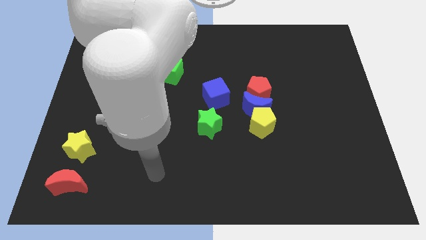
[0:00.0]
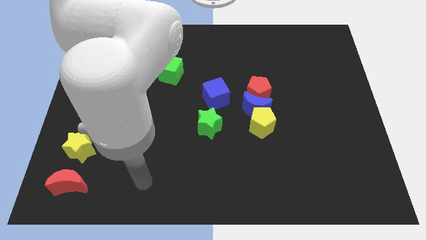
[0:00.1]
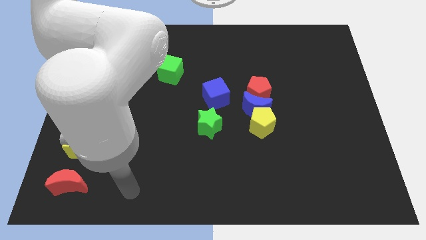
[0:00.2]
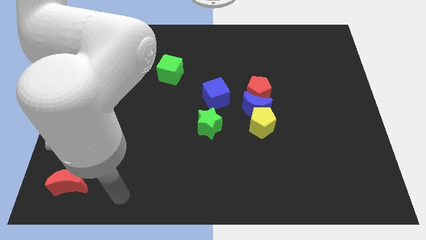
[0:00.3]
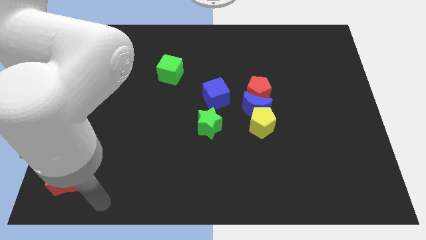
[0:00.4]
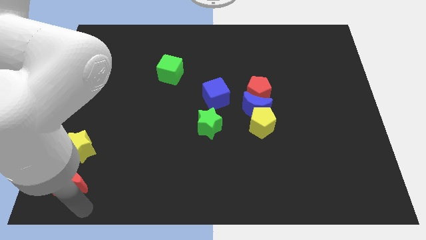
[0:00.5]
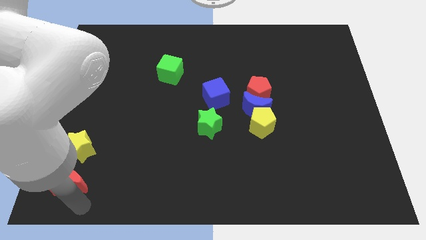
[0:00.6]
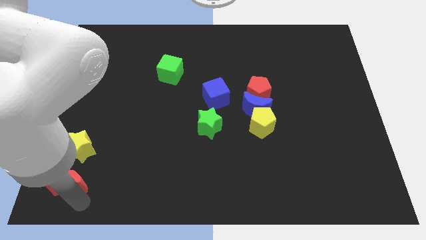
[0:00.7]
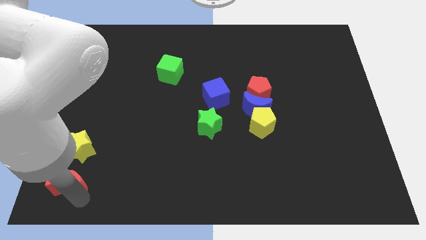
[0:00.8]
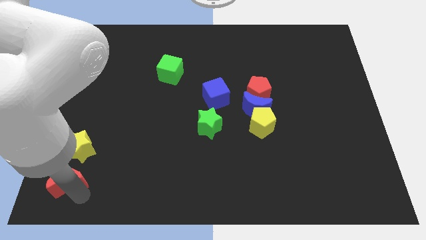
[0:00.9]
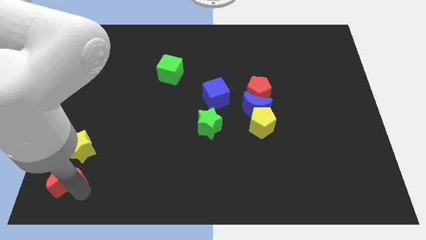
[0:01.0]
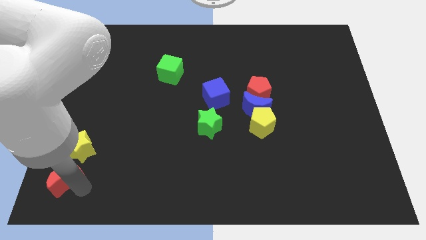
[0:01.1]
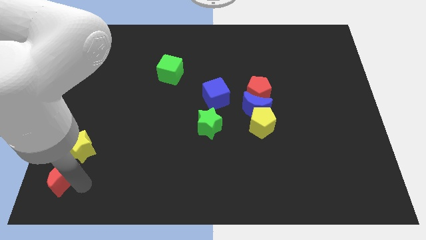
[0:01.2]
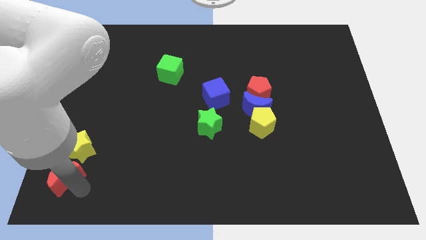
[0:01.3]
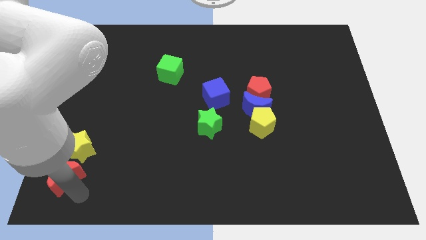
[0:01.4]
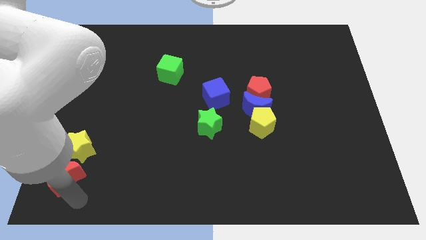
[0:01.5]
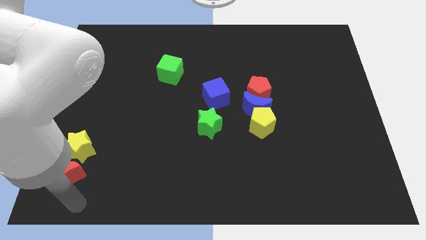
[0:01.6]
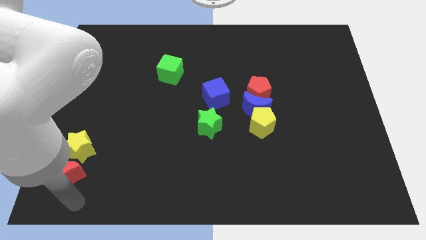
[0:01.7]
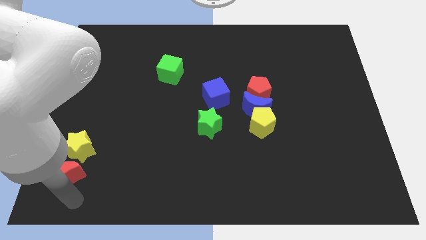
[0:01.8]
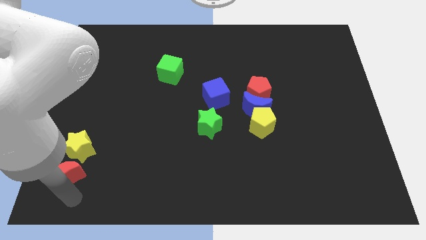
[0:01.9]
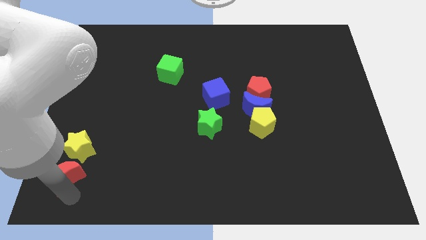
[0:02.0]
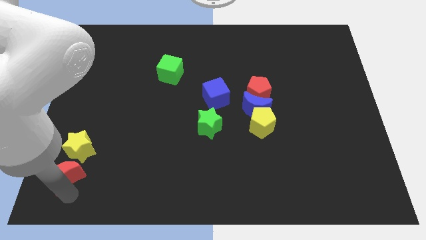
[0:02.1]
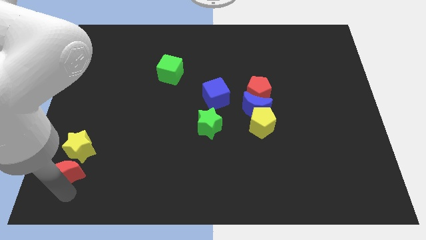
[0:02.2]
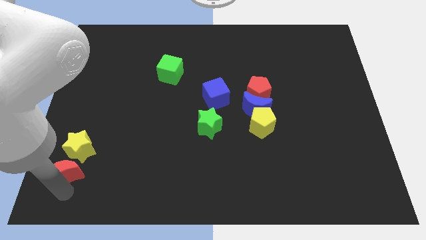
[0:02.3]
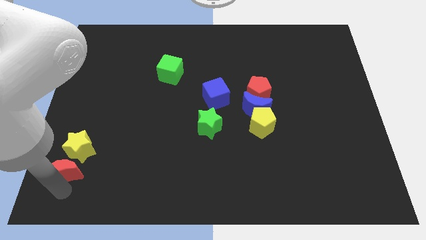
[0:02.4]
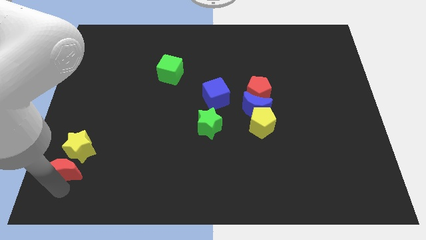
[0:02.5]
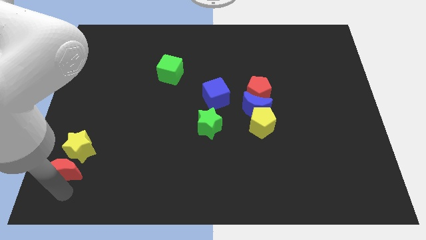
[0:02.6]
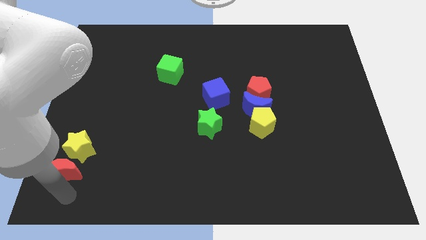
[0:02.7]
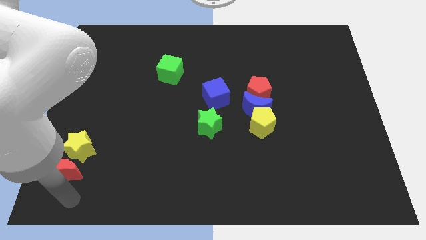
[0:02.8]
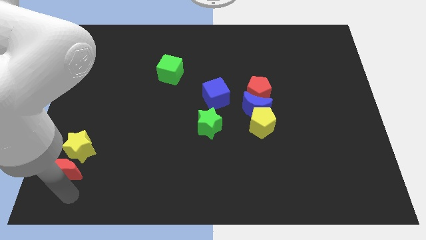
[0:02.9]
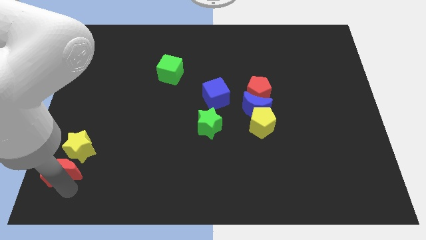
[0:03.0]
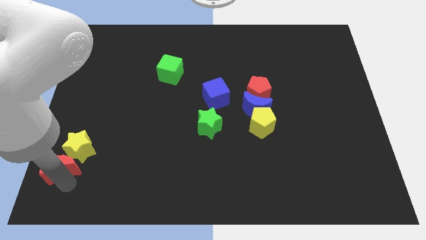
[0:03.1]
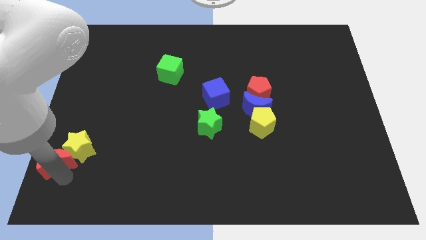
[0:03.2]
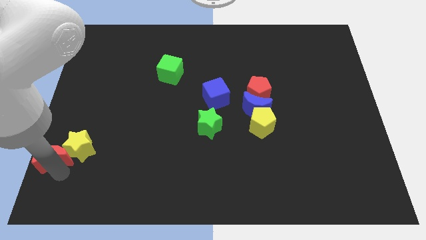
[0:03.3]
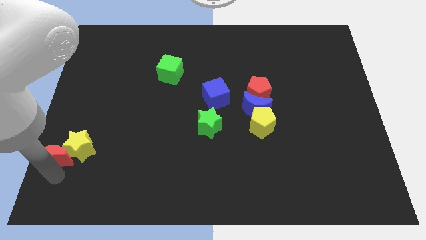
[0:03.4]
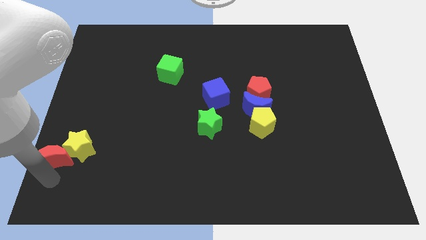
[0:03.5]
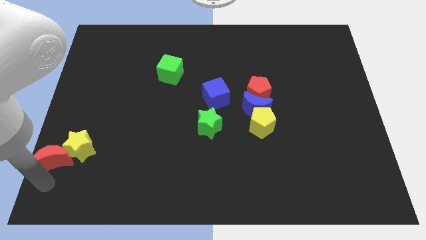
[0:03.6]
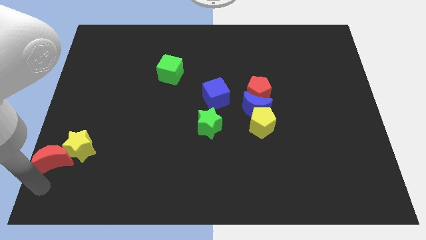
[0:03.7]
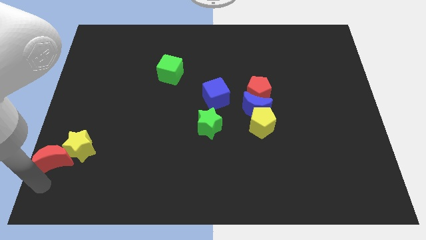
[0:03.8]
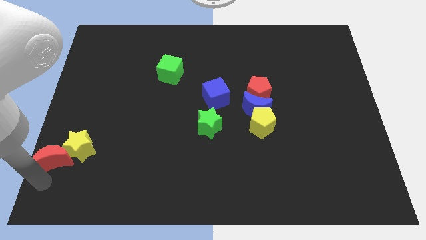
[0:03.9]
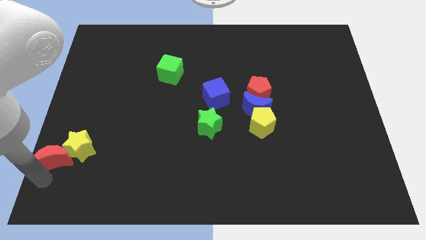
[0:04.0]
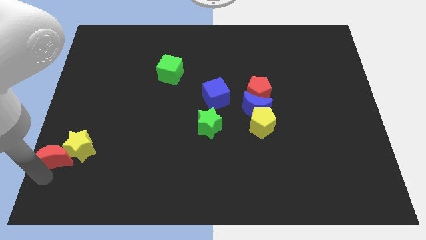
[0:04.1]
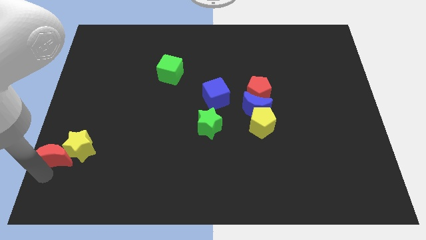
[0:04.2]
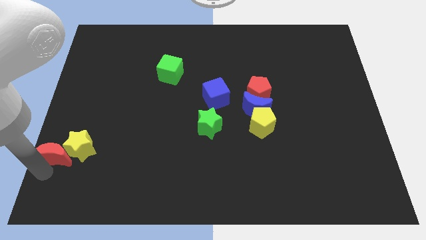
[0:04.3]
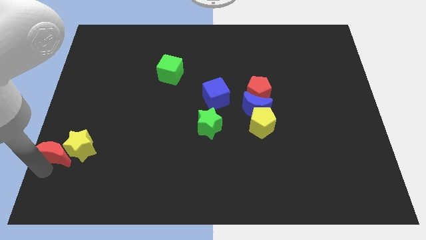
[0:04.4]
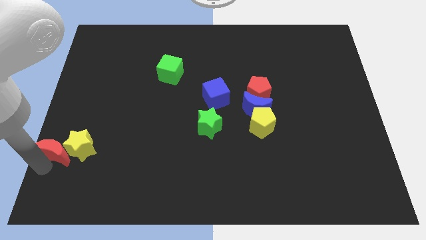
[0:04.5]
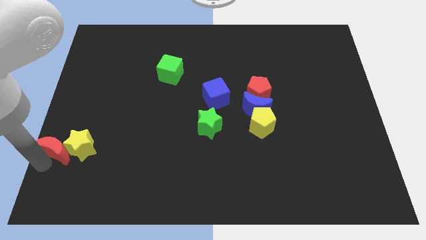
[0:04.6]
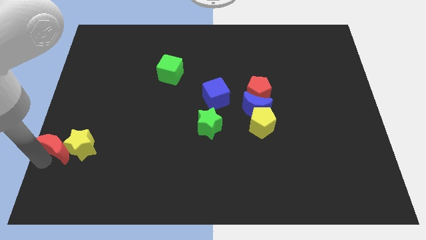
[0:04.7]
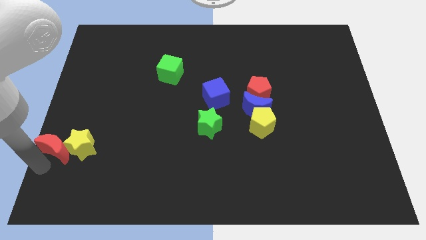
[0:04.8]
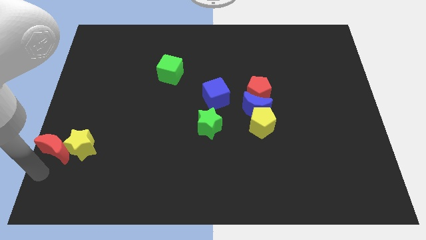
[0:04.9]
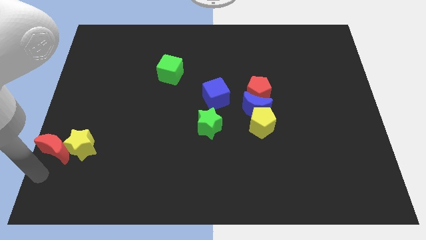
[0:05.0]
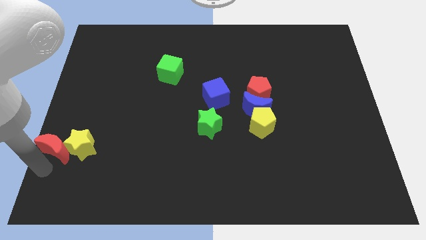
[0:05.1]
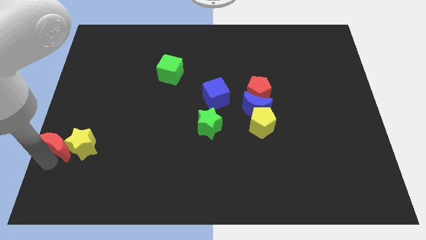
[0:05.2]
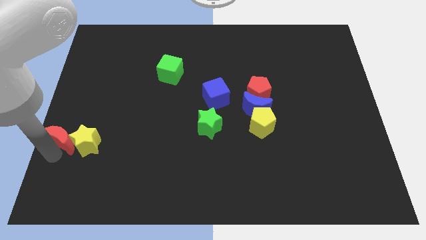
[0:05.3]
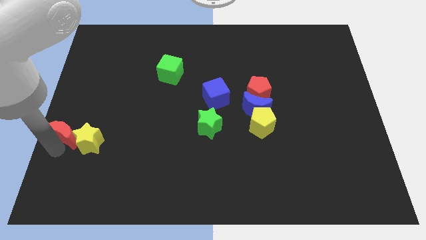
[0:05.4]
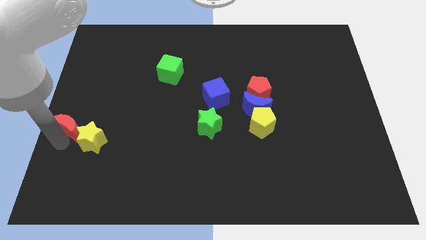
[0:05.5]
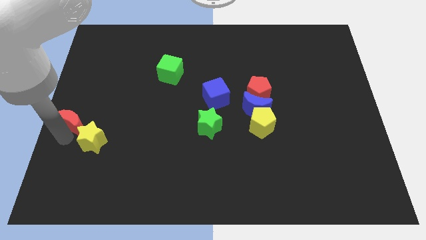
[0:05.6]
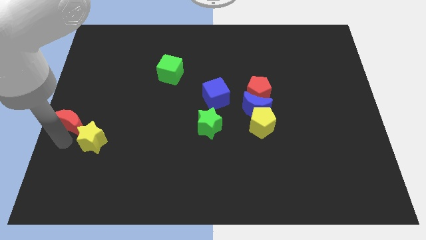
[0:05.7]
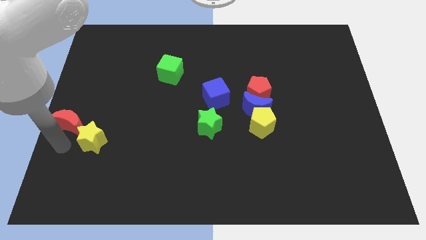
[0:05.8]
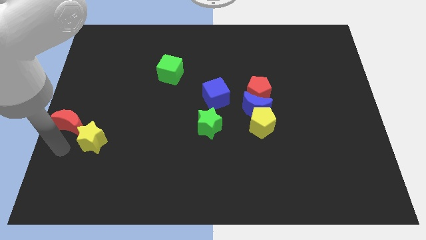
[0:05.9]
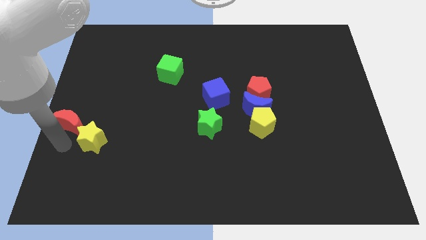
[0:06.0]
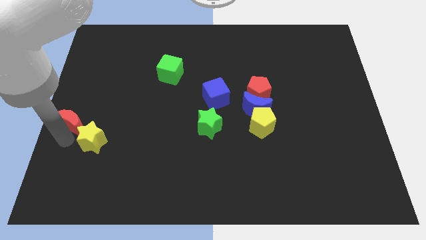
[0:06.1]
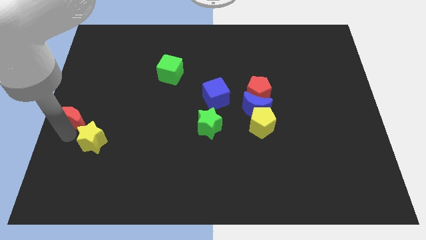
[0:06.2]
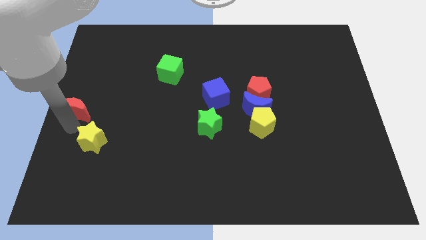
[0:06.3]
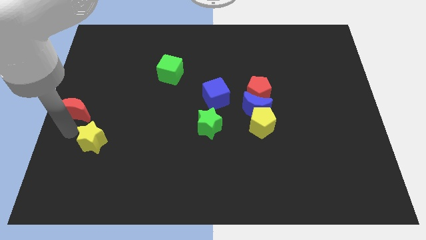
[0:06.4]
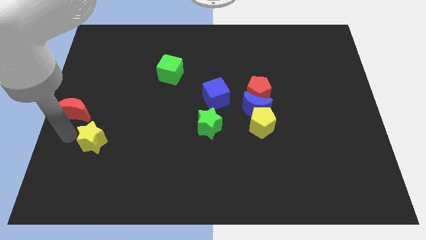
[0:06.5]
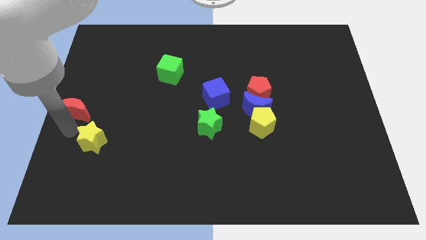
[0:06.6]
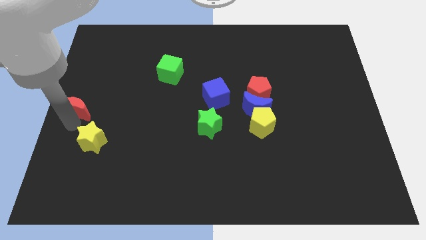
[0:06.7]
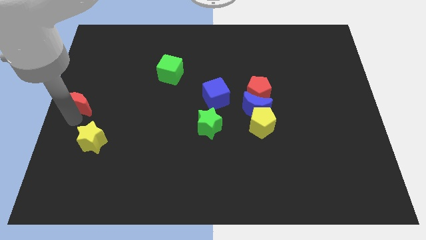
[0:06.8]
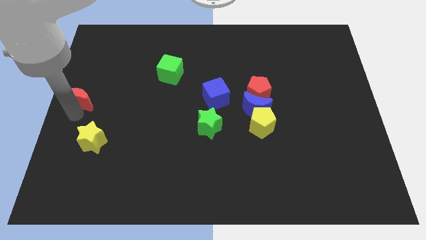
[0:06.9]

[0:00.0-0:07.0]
slide the red moon up

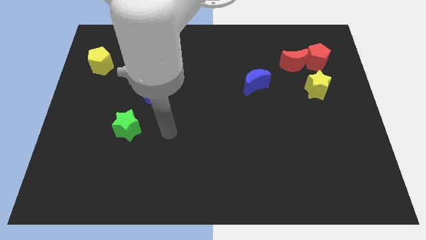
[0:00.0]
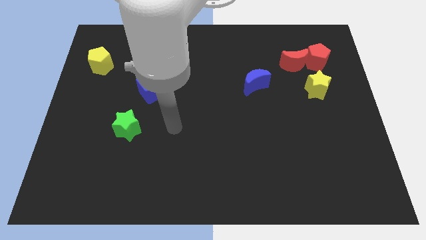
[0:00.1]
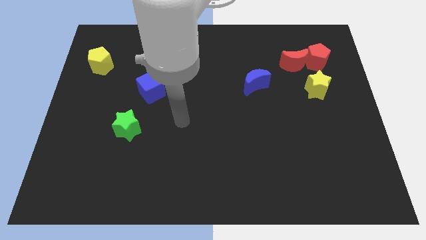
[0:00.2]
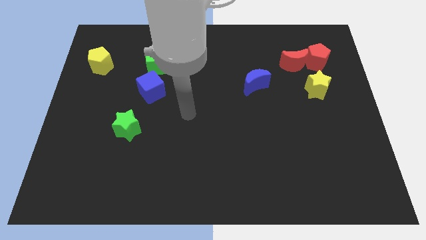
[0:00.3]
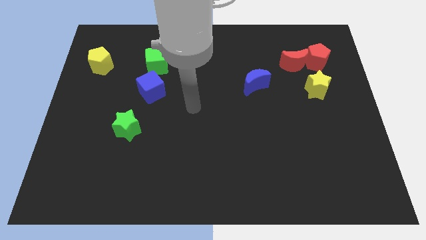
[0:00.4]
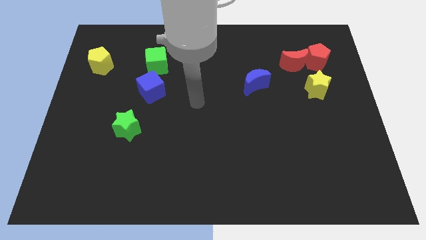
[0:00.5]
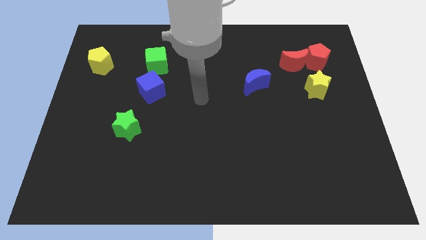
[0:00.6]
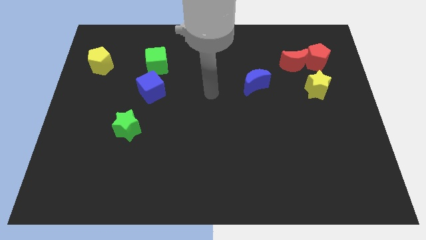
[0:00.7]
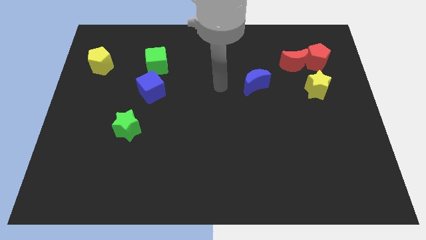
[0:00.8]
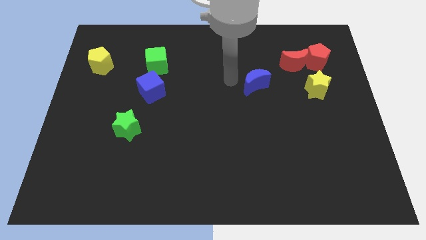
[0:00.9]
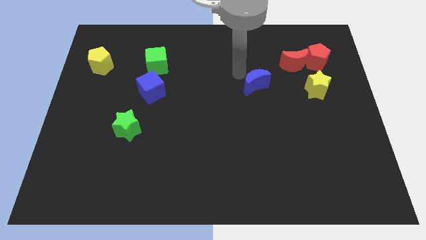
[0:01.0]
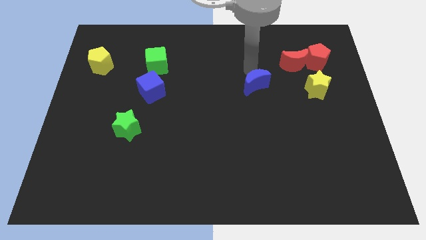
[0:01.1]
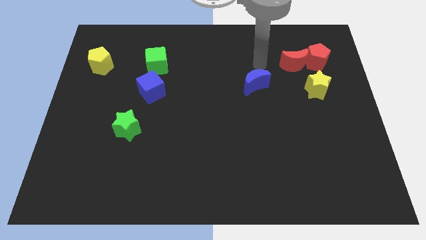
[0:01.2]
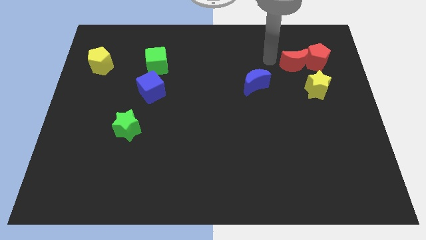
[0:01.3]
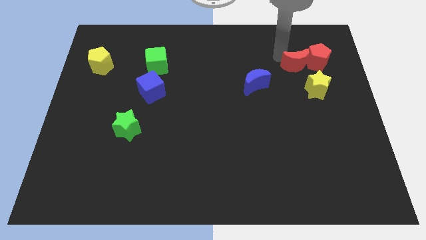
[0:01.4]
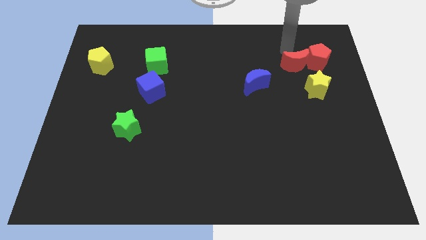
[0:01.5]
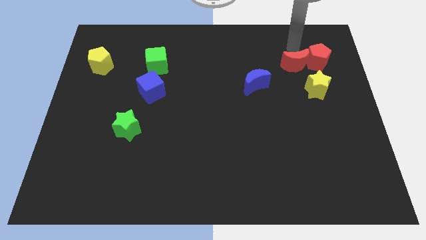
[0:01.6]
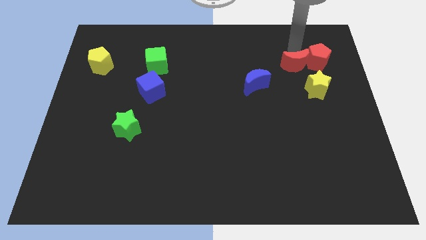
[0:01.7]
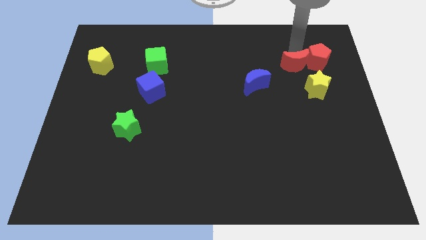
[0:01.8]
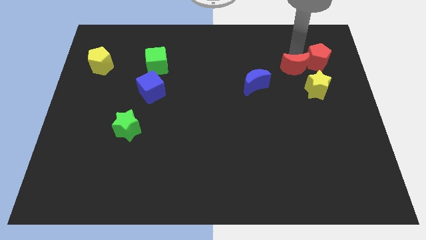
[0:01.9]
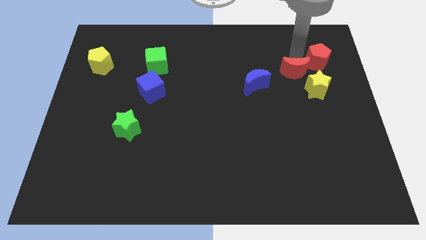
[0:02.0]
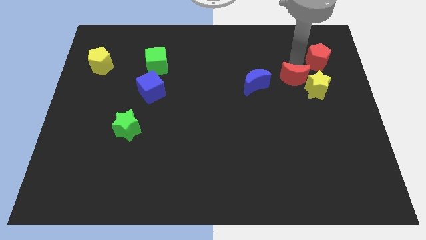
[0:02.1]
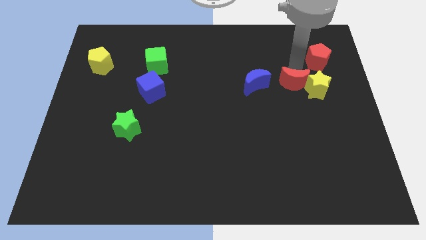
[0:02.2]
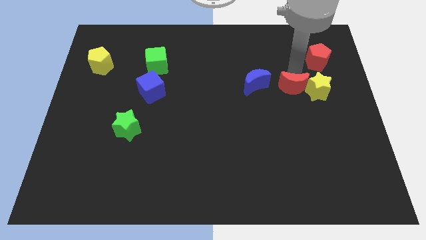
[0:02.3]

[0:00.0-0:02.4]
move the red moon a little bit down
